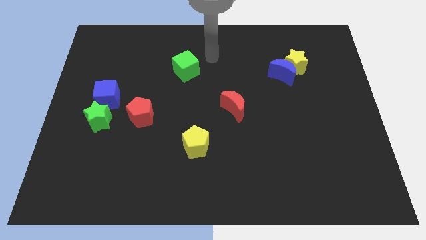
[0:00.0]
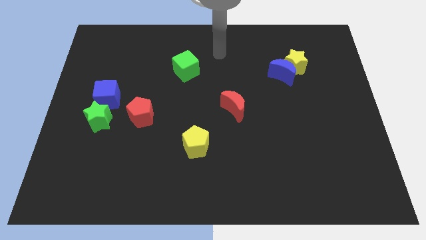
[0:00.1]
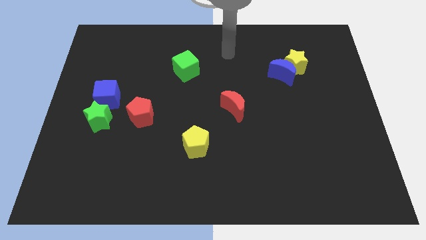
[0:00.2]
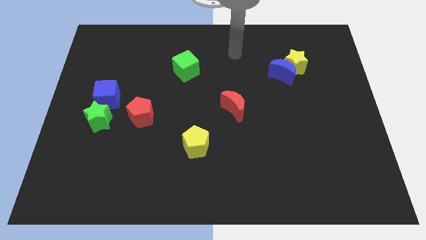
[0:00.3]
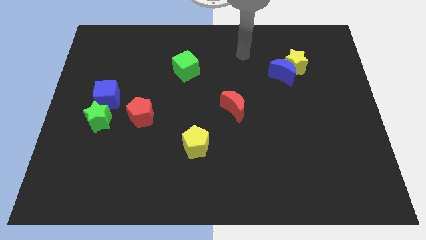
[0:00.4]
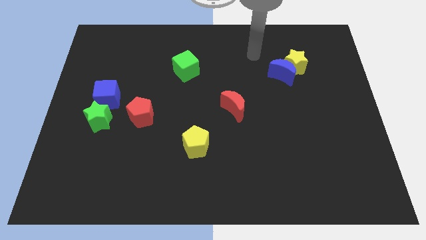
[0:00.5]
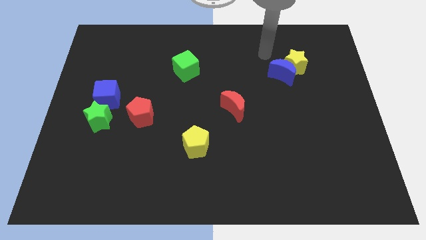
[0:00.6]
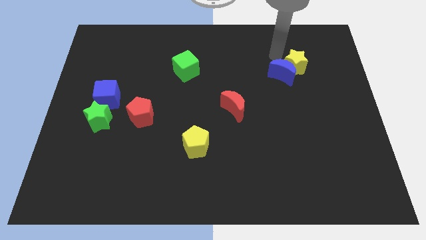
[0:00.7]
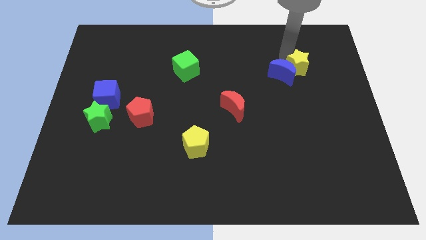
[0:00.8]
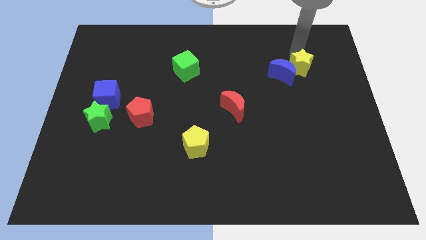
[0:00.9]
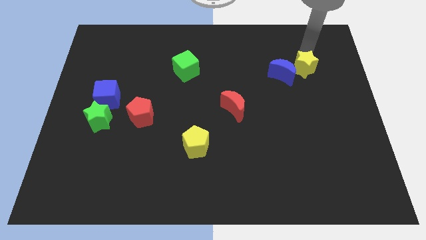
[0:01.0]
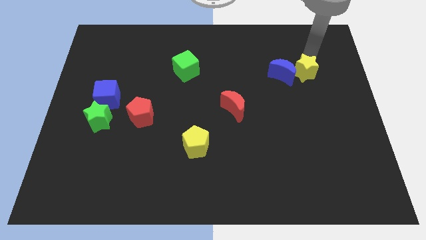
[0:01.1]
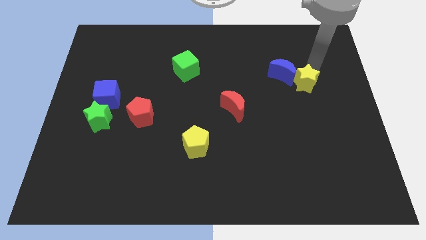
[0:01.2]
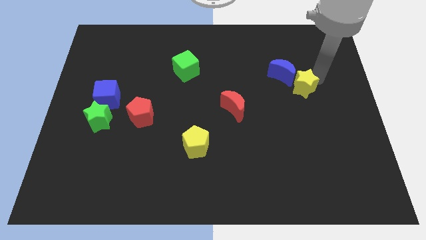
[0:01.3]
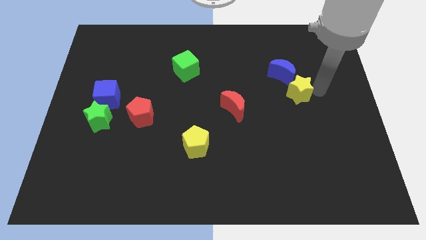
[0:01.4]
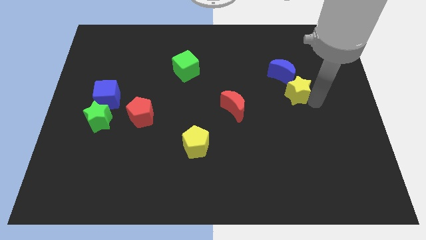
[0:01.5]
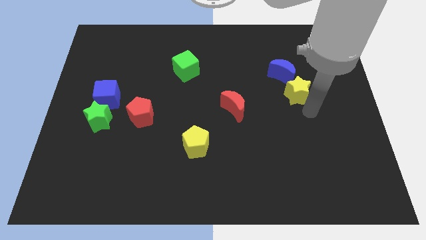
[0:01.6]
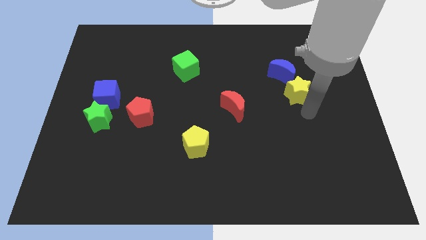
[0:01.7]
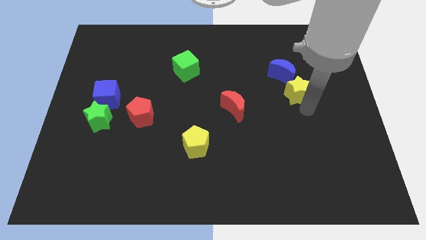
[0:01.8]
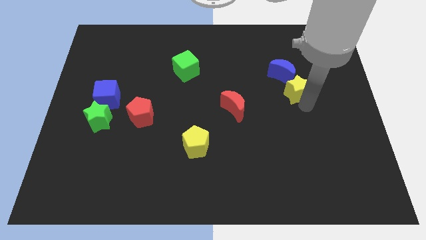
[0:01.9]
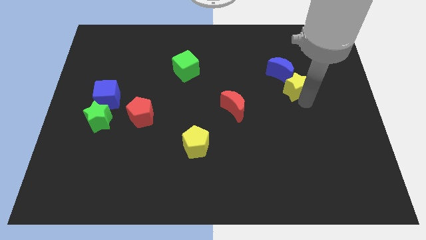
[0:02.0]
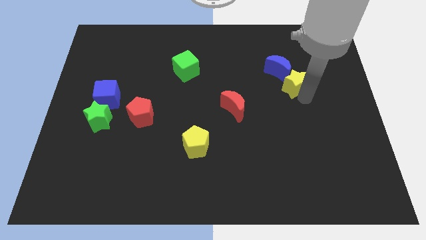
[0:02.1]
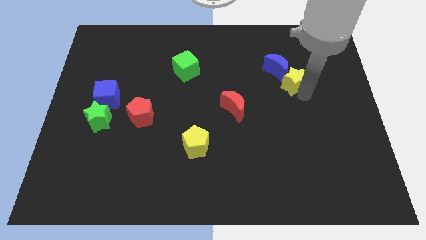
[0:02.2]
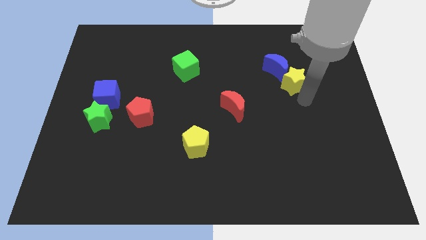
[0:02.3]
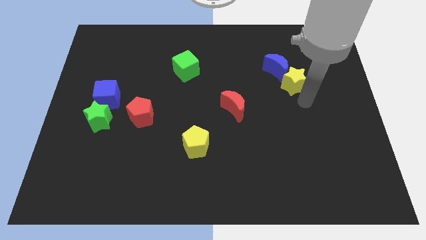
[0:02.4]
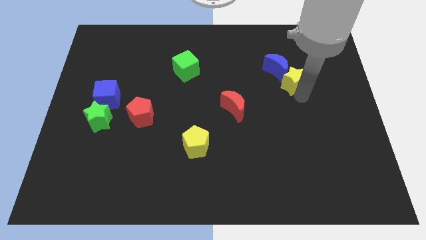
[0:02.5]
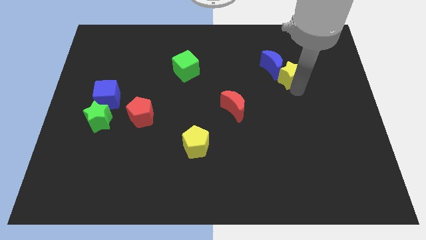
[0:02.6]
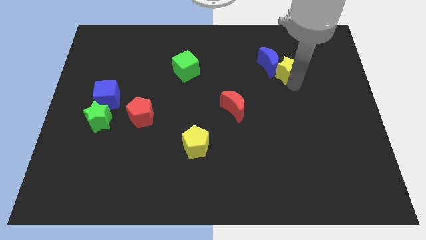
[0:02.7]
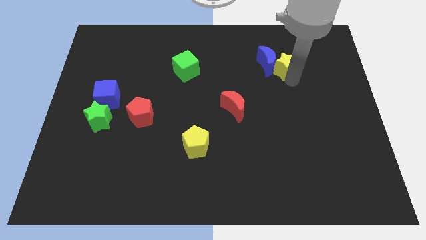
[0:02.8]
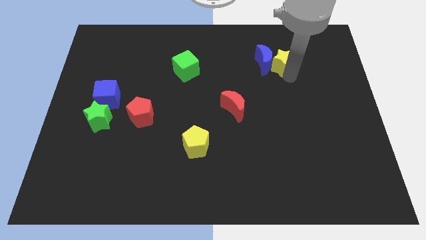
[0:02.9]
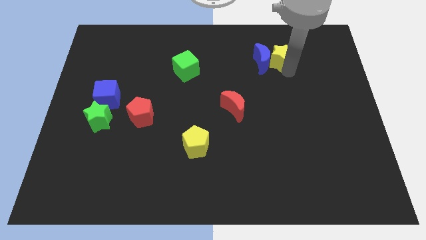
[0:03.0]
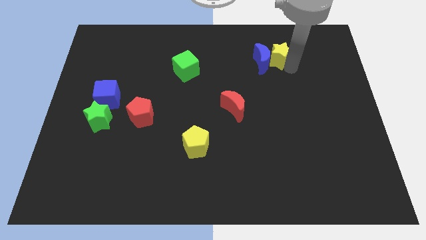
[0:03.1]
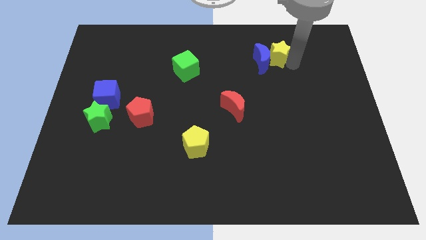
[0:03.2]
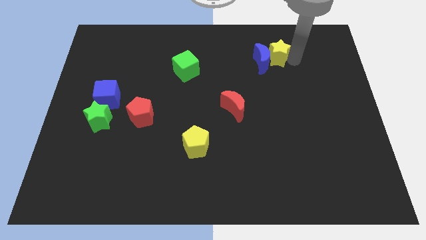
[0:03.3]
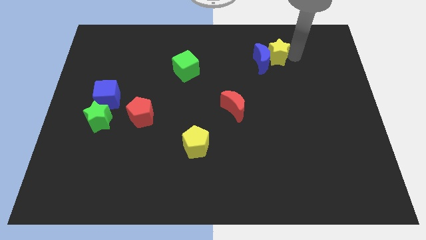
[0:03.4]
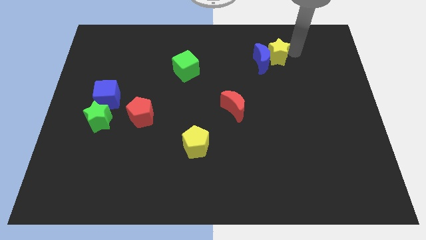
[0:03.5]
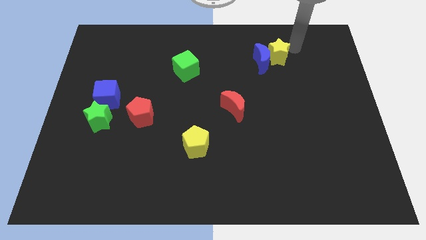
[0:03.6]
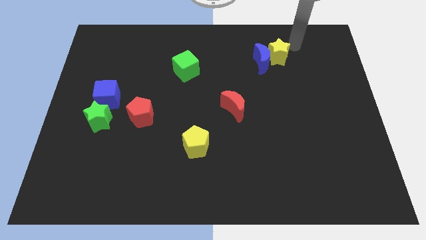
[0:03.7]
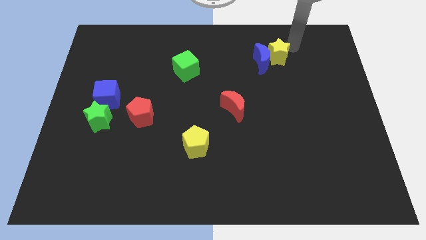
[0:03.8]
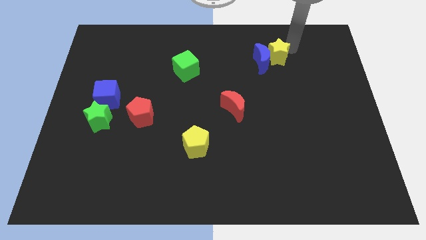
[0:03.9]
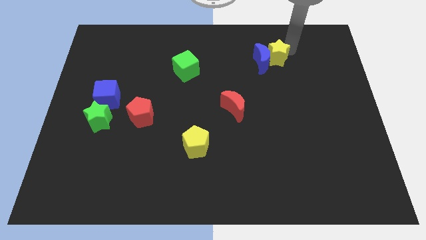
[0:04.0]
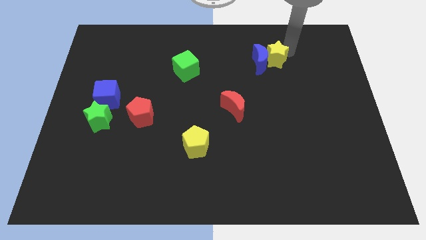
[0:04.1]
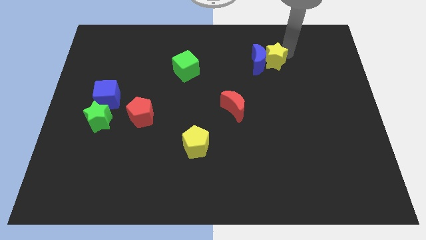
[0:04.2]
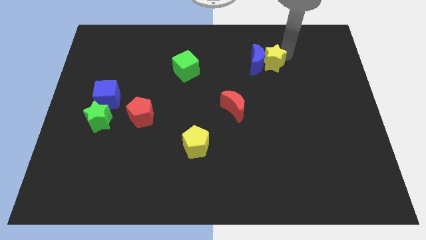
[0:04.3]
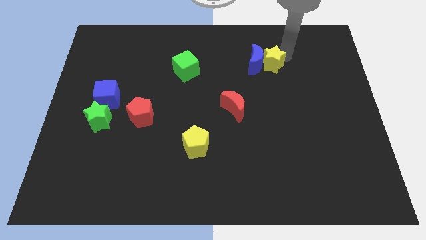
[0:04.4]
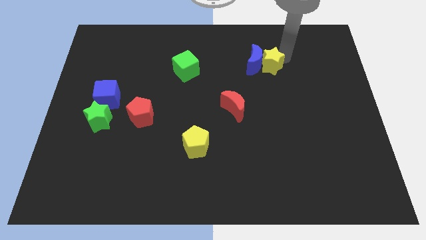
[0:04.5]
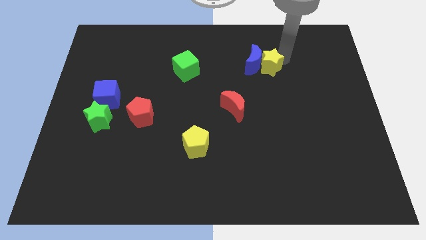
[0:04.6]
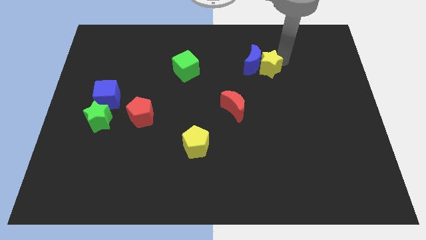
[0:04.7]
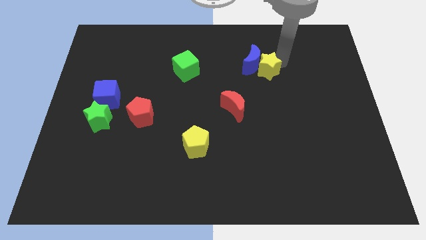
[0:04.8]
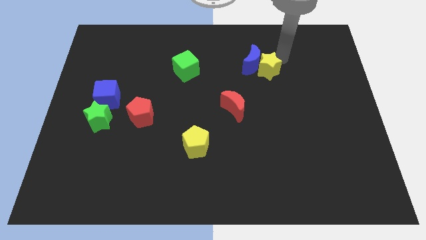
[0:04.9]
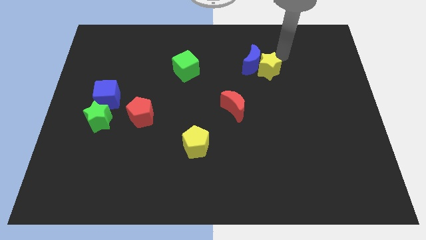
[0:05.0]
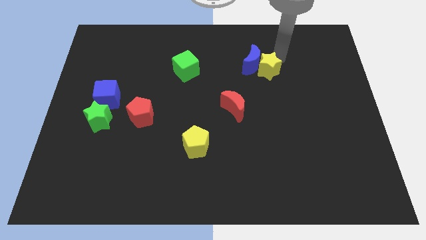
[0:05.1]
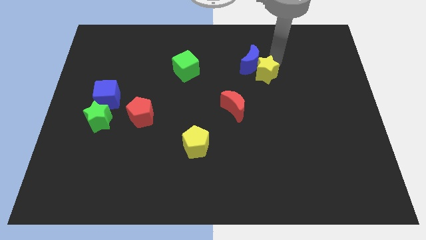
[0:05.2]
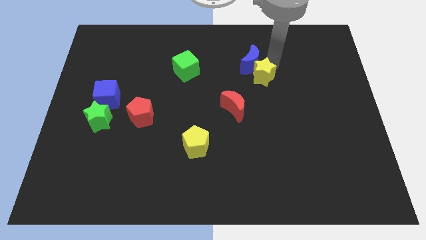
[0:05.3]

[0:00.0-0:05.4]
move the yellow star to the top right of the red moon

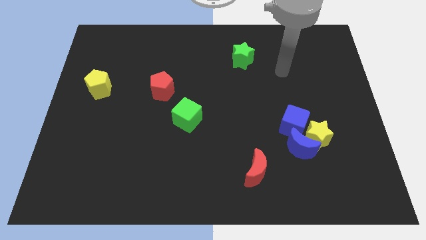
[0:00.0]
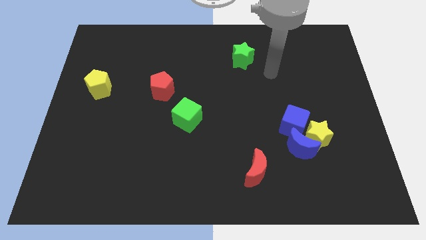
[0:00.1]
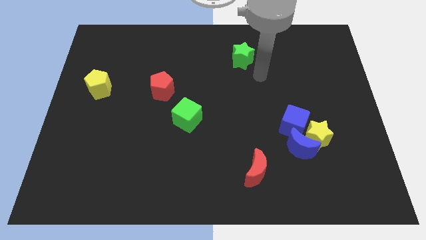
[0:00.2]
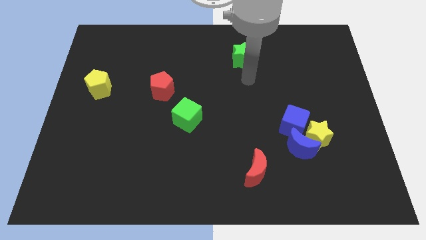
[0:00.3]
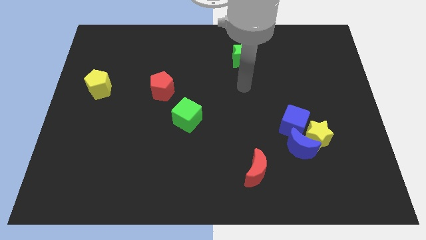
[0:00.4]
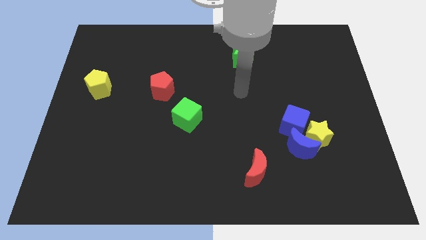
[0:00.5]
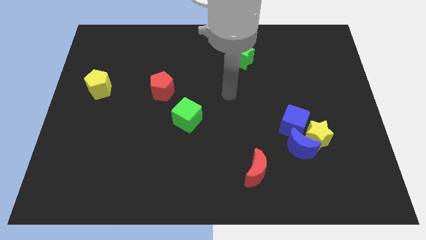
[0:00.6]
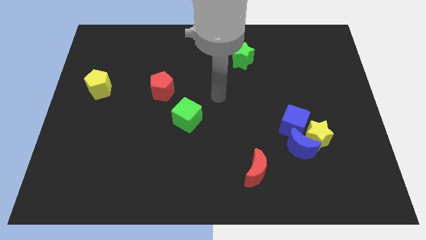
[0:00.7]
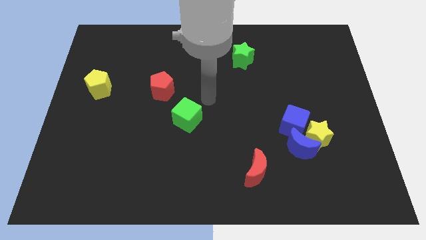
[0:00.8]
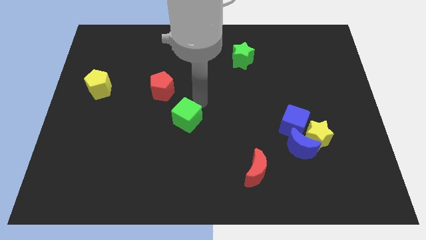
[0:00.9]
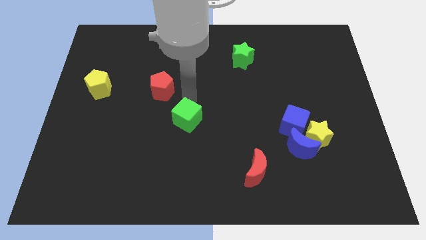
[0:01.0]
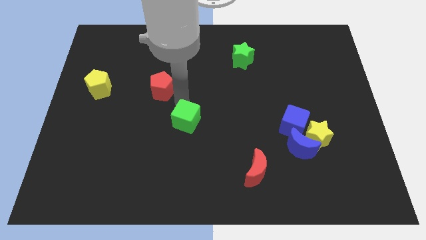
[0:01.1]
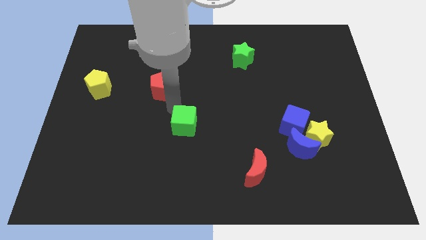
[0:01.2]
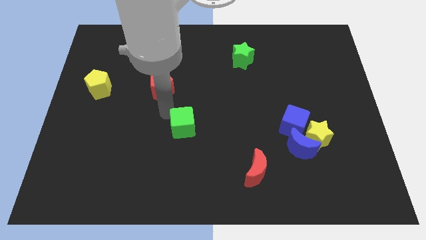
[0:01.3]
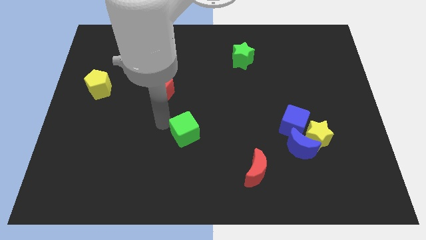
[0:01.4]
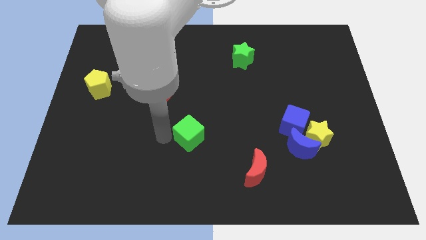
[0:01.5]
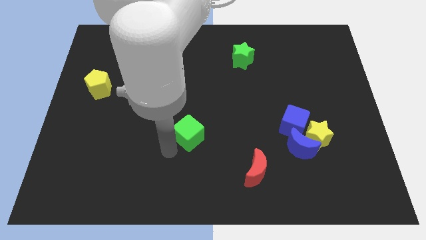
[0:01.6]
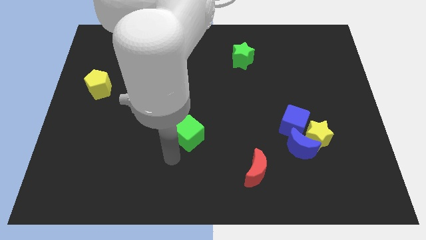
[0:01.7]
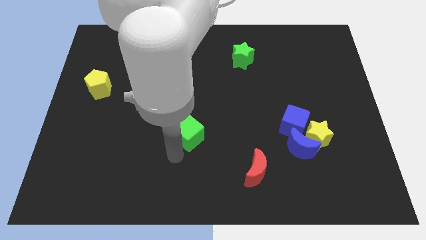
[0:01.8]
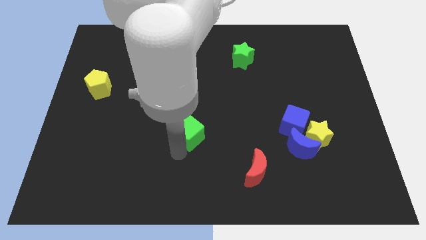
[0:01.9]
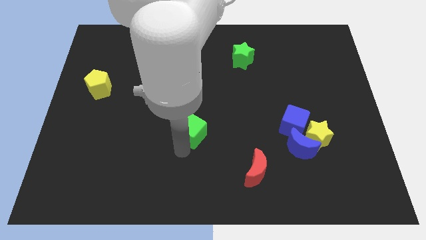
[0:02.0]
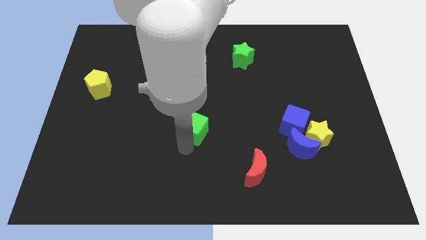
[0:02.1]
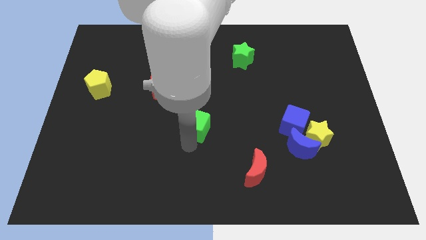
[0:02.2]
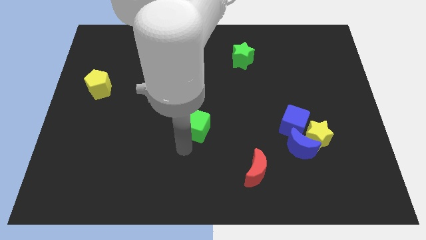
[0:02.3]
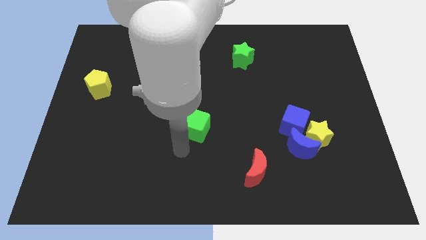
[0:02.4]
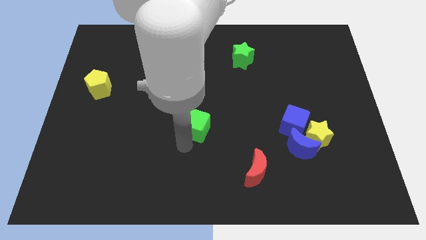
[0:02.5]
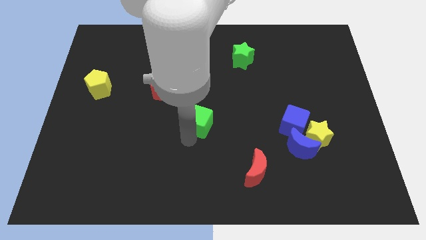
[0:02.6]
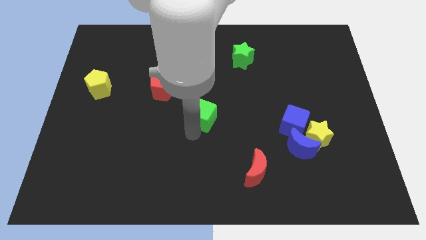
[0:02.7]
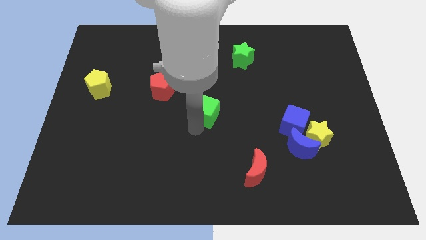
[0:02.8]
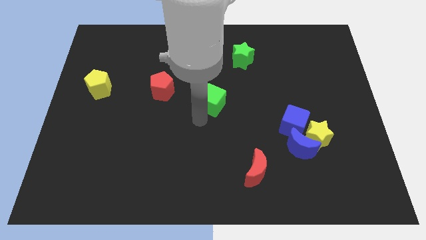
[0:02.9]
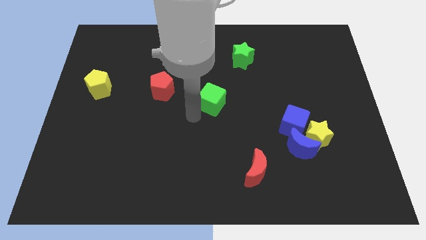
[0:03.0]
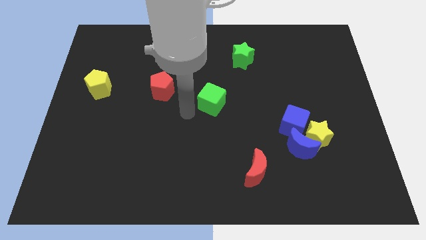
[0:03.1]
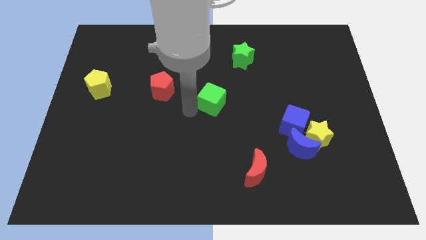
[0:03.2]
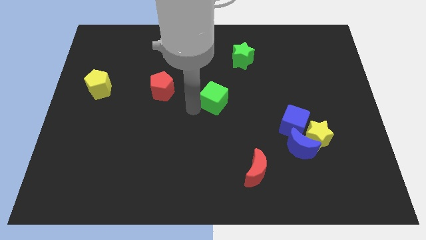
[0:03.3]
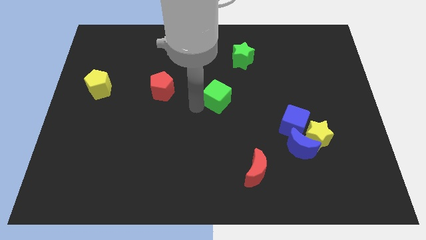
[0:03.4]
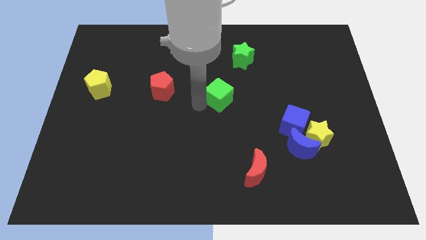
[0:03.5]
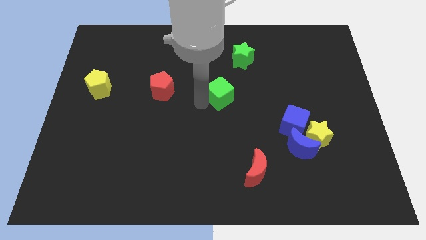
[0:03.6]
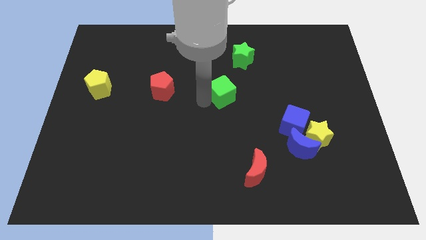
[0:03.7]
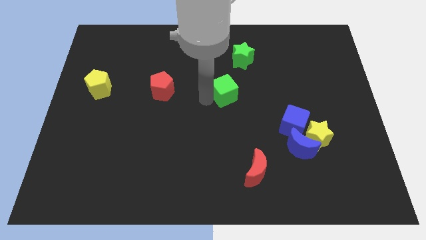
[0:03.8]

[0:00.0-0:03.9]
push the green cube below the green star
